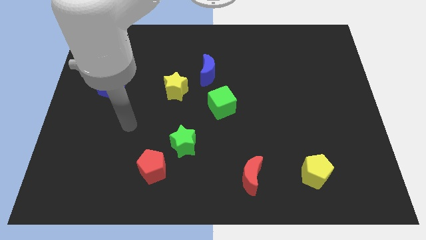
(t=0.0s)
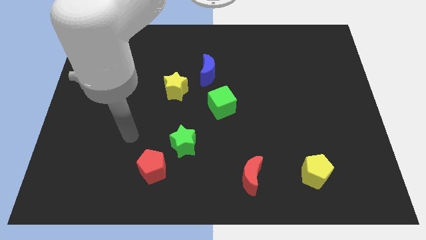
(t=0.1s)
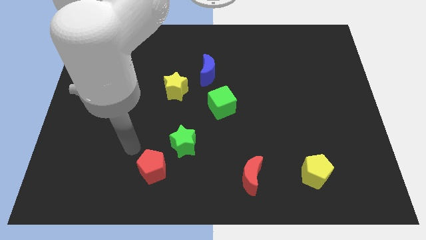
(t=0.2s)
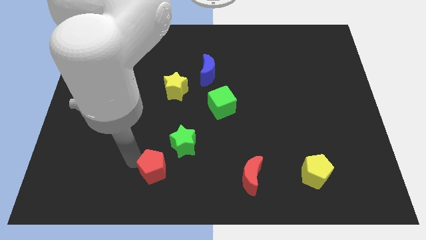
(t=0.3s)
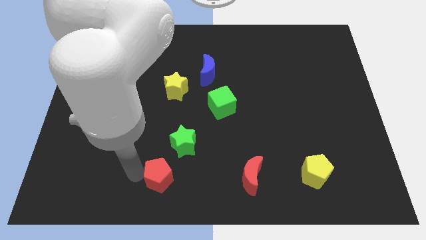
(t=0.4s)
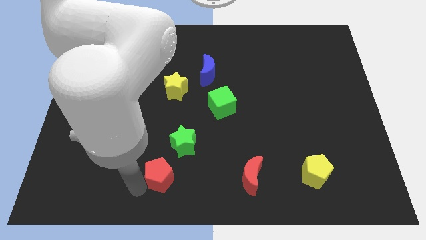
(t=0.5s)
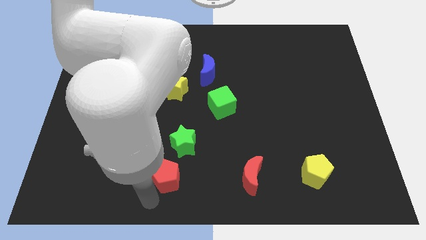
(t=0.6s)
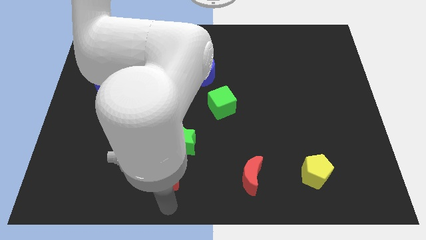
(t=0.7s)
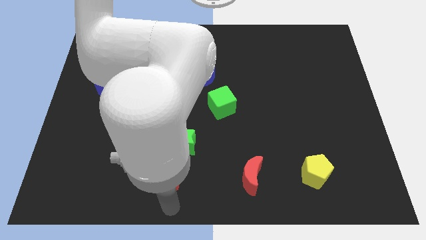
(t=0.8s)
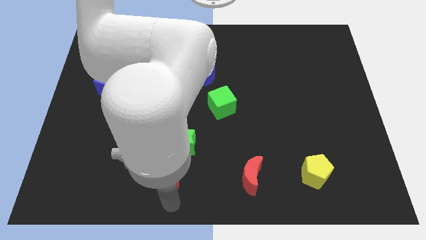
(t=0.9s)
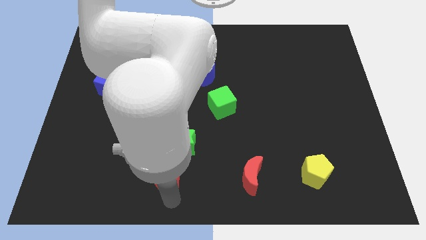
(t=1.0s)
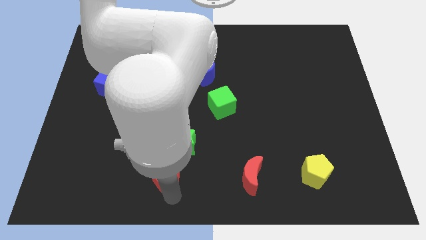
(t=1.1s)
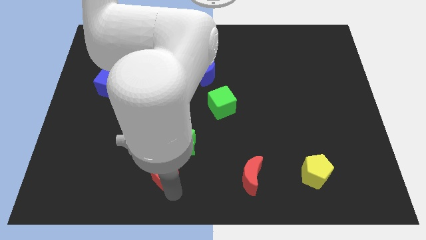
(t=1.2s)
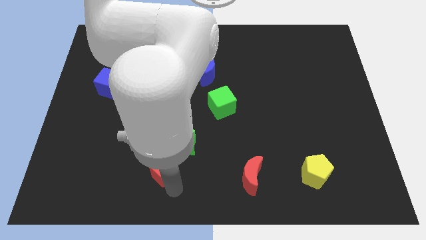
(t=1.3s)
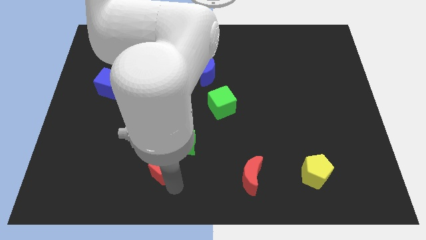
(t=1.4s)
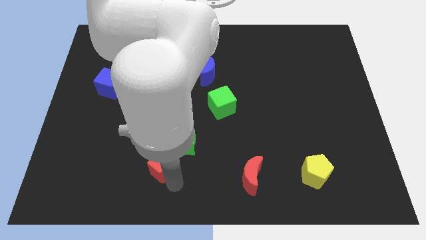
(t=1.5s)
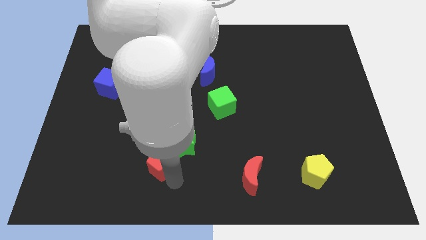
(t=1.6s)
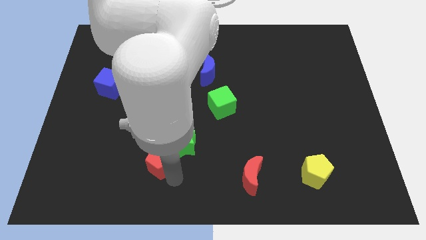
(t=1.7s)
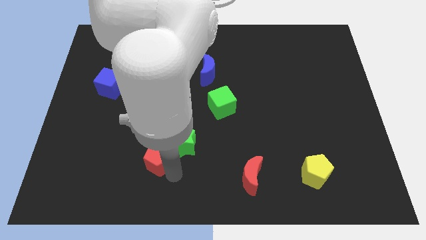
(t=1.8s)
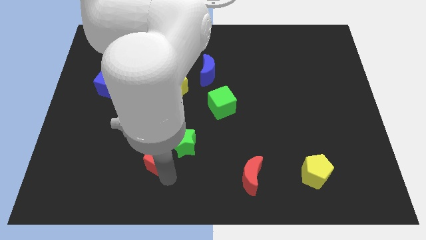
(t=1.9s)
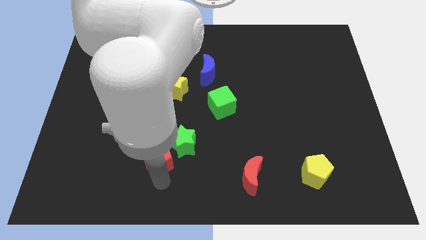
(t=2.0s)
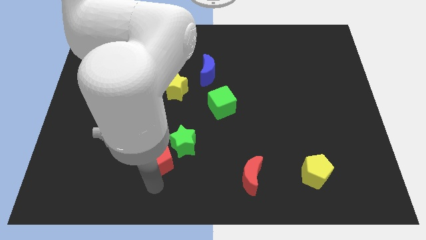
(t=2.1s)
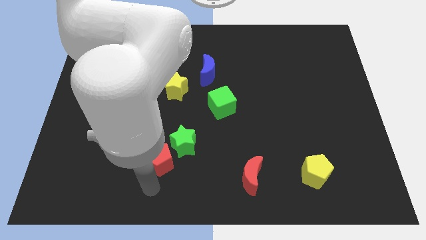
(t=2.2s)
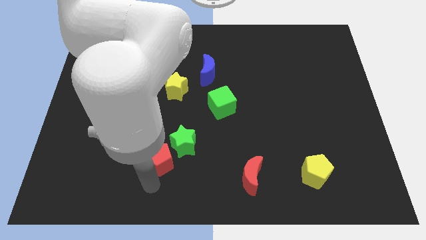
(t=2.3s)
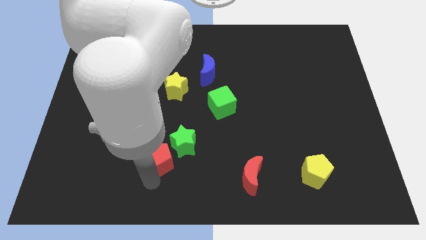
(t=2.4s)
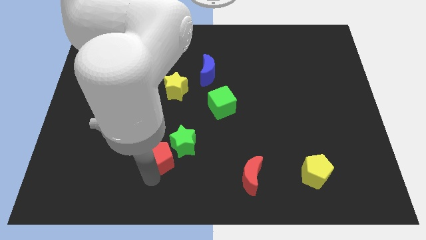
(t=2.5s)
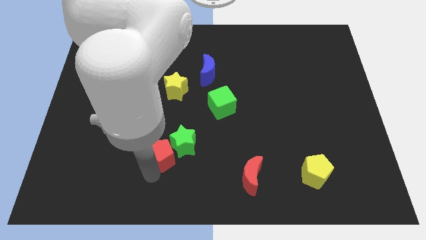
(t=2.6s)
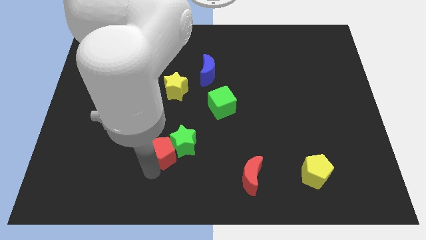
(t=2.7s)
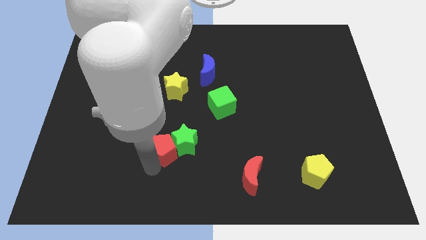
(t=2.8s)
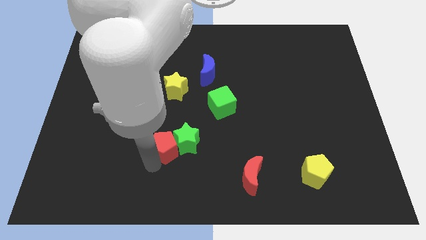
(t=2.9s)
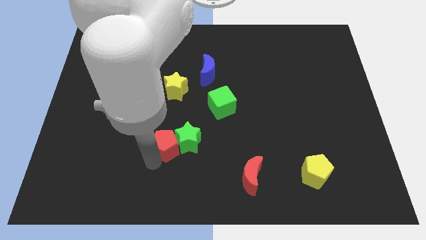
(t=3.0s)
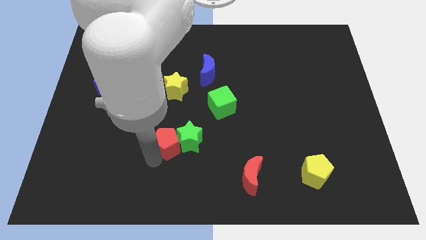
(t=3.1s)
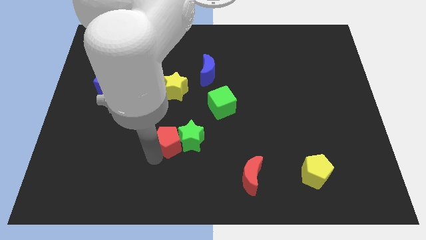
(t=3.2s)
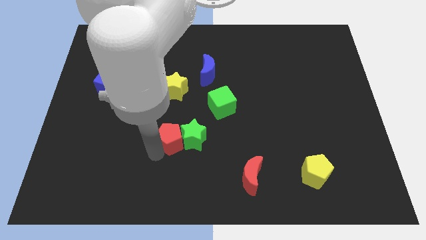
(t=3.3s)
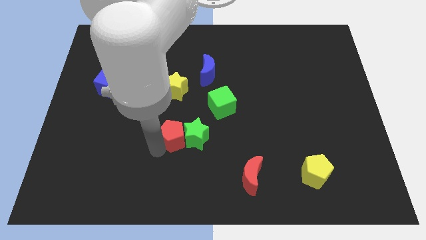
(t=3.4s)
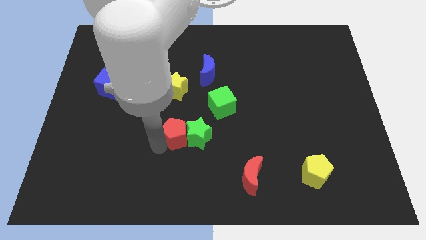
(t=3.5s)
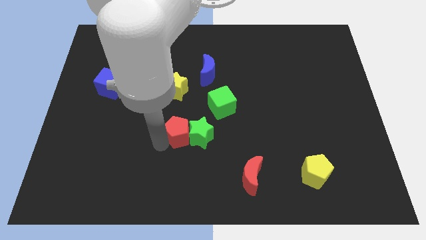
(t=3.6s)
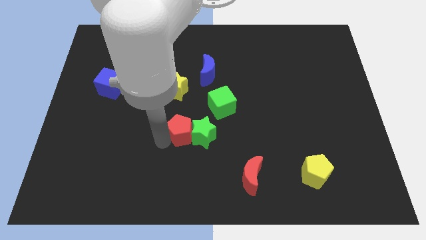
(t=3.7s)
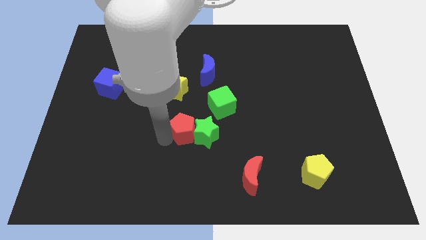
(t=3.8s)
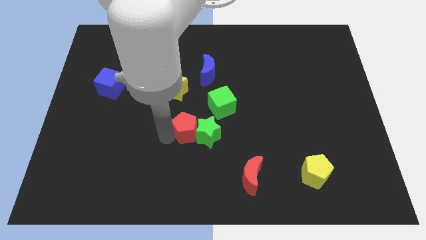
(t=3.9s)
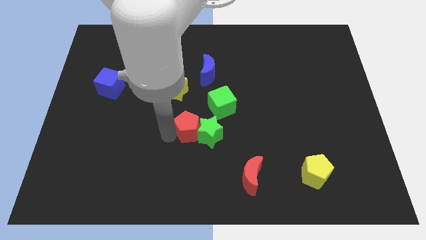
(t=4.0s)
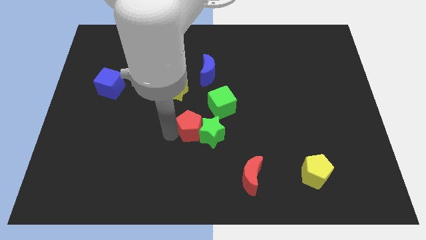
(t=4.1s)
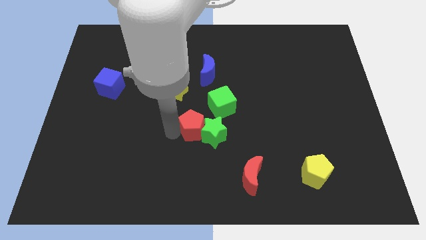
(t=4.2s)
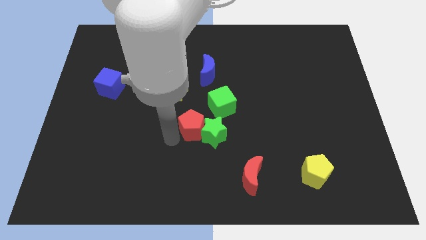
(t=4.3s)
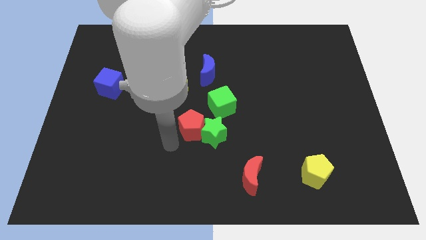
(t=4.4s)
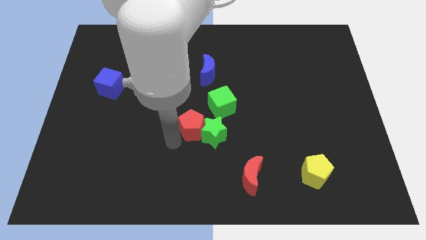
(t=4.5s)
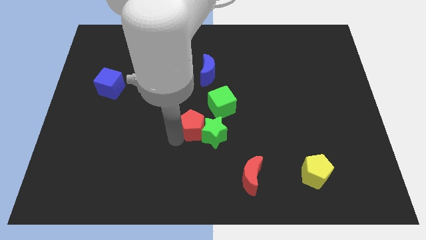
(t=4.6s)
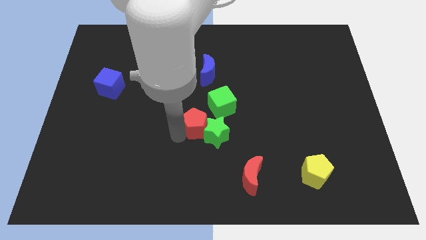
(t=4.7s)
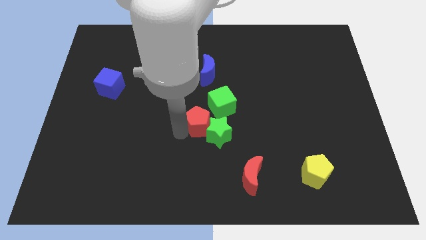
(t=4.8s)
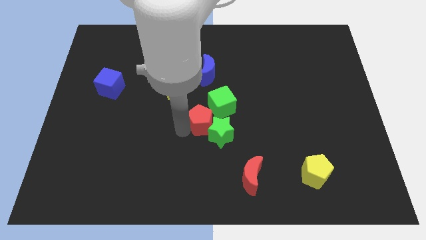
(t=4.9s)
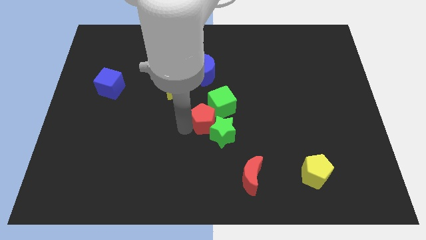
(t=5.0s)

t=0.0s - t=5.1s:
slide the red pentagon towards the green cube

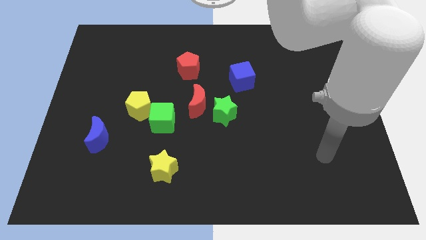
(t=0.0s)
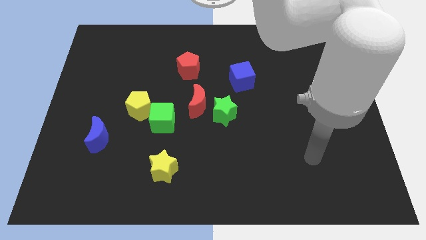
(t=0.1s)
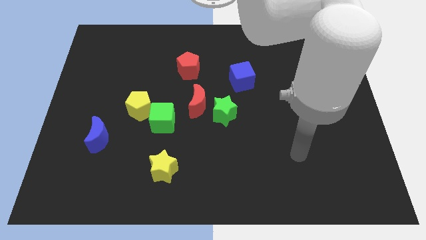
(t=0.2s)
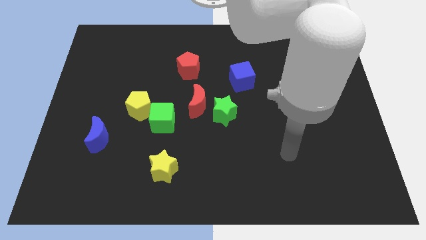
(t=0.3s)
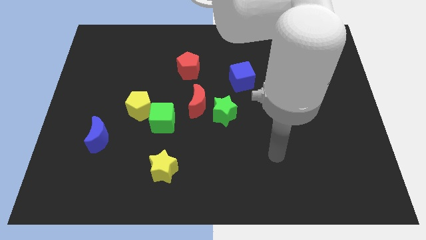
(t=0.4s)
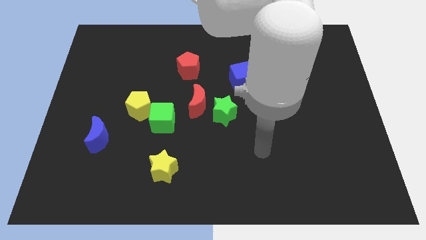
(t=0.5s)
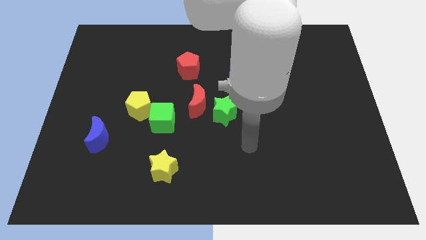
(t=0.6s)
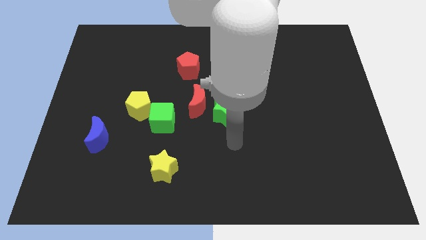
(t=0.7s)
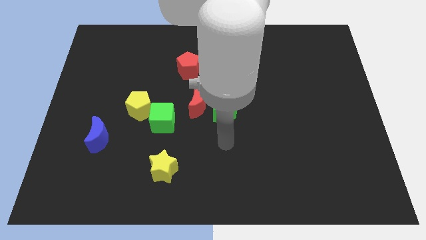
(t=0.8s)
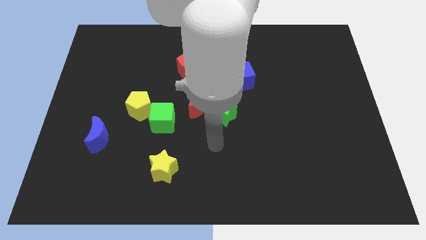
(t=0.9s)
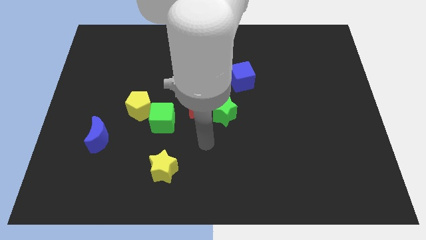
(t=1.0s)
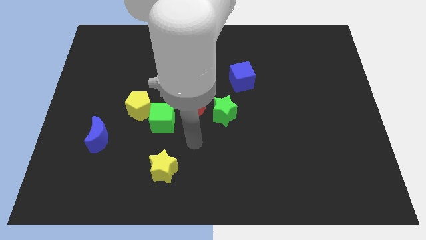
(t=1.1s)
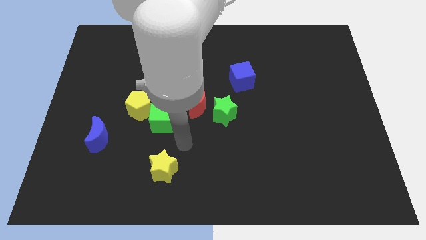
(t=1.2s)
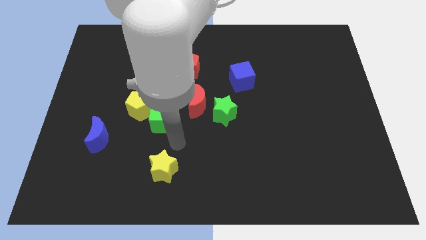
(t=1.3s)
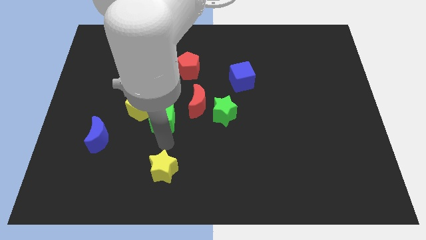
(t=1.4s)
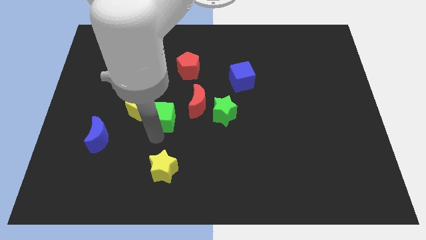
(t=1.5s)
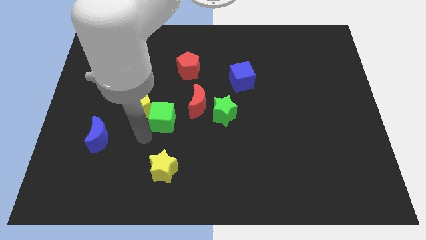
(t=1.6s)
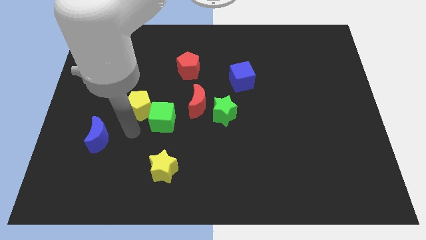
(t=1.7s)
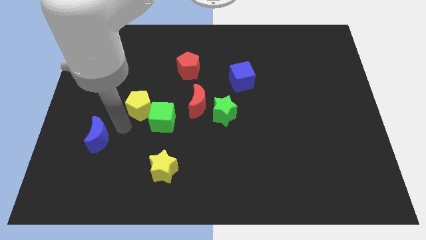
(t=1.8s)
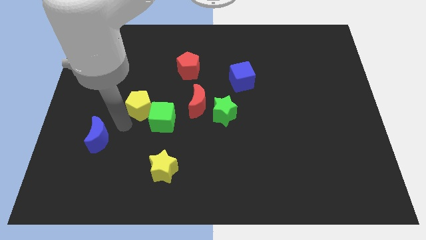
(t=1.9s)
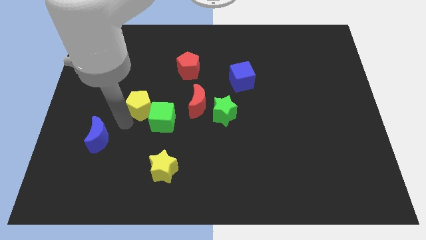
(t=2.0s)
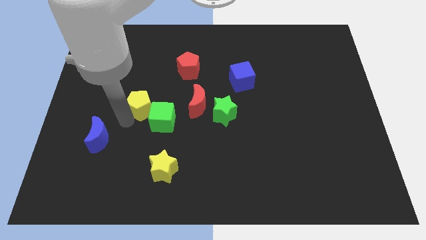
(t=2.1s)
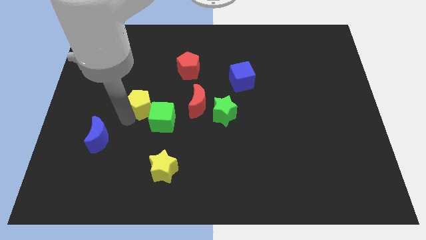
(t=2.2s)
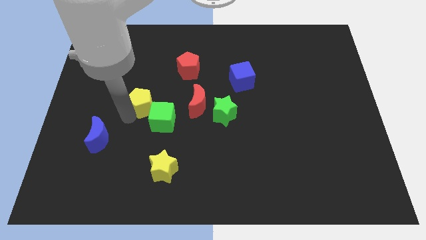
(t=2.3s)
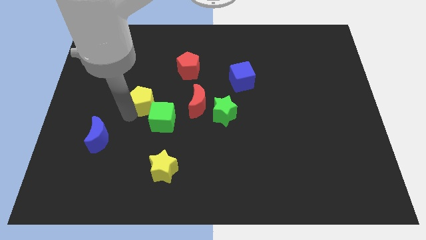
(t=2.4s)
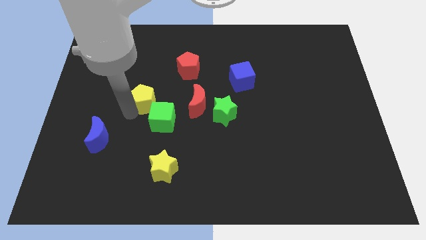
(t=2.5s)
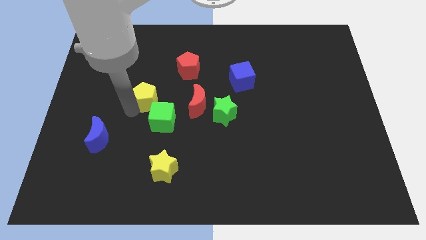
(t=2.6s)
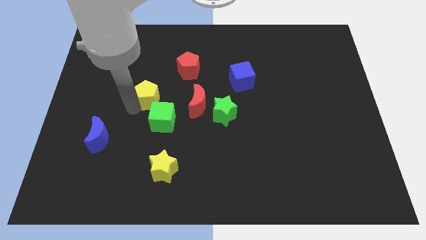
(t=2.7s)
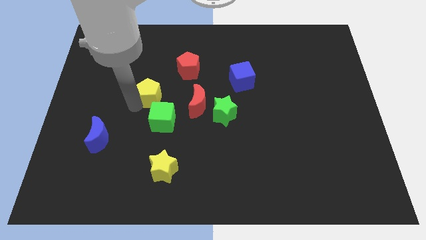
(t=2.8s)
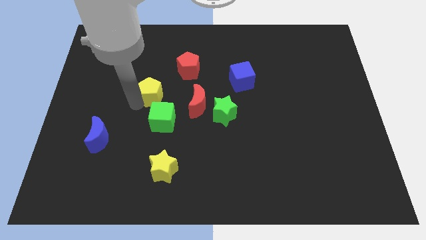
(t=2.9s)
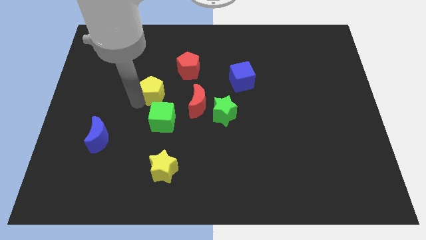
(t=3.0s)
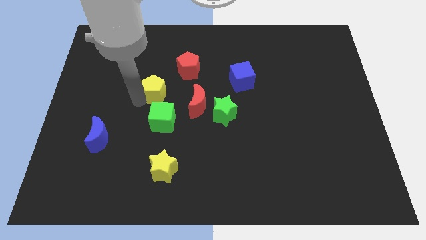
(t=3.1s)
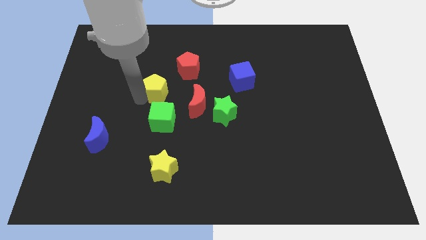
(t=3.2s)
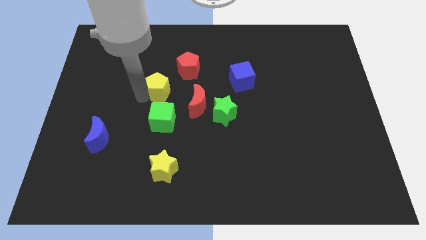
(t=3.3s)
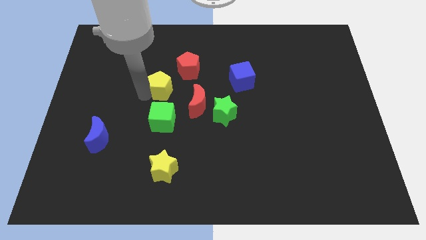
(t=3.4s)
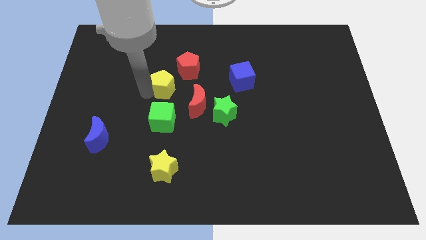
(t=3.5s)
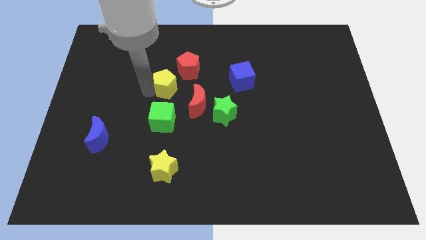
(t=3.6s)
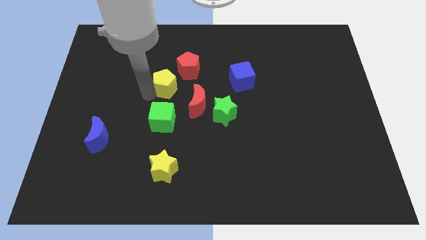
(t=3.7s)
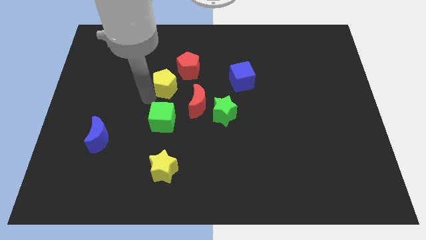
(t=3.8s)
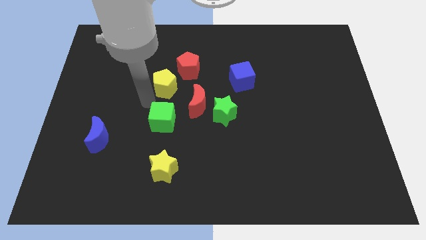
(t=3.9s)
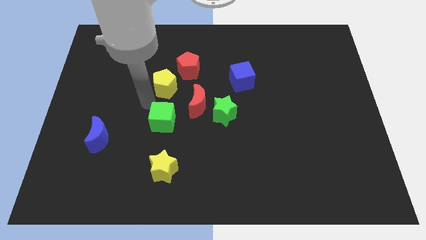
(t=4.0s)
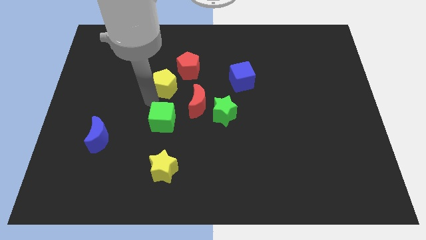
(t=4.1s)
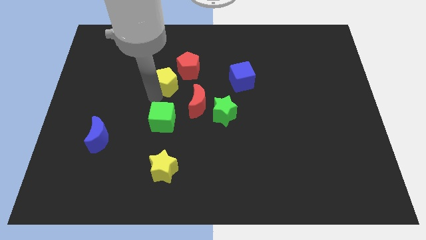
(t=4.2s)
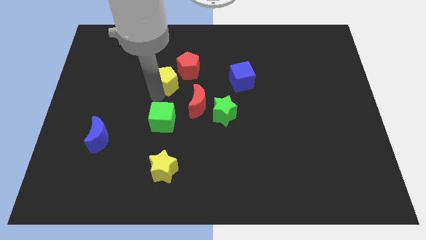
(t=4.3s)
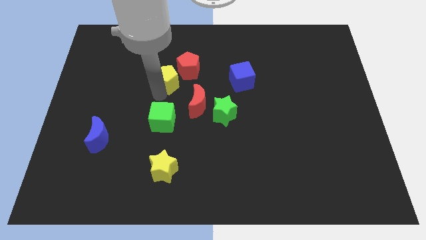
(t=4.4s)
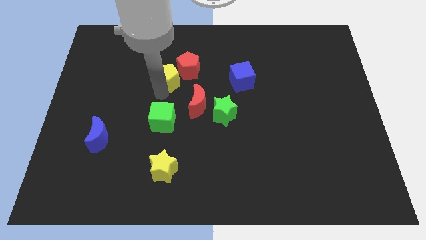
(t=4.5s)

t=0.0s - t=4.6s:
put the yellow pentagon close to the red pentagon
